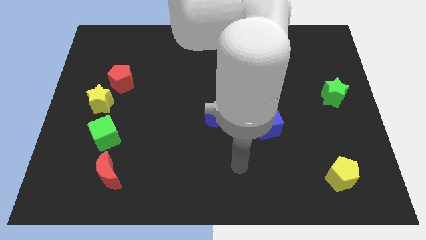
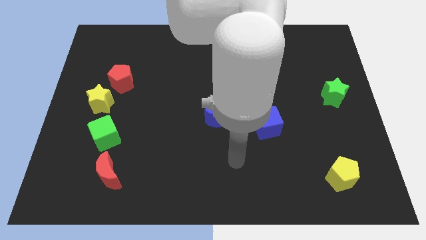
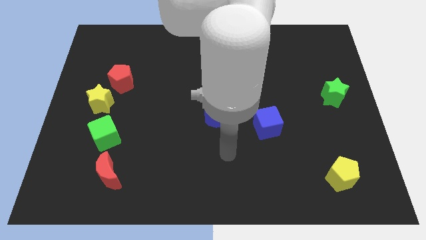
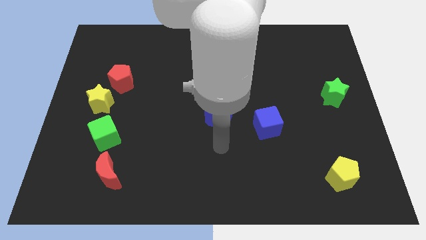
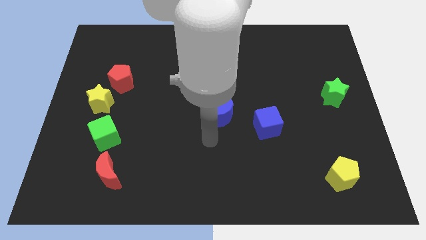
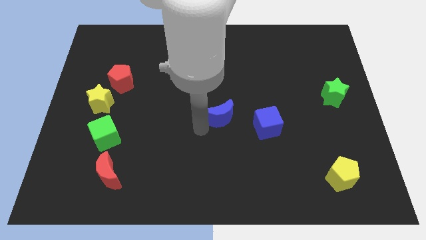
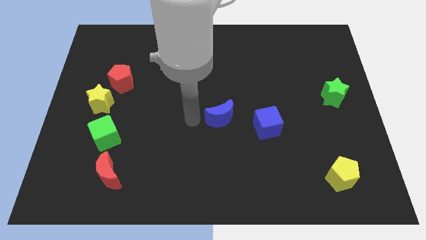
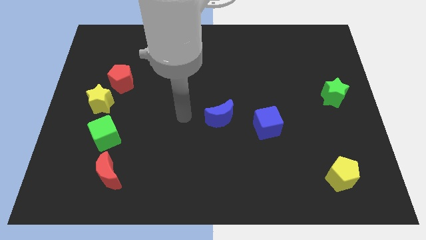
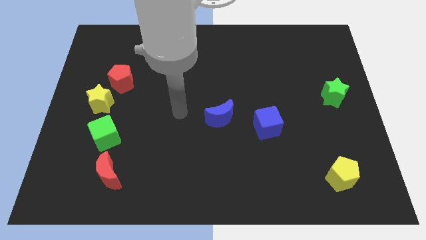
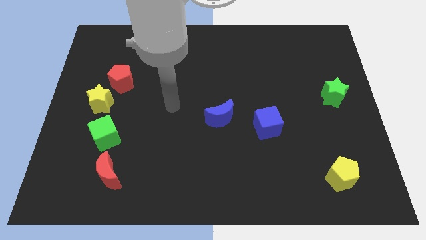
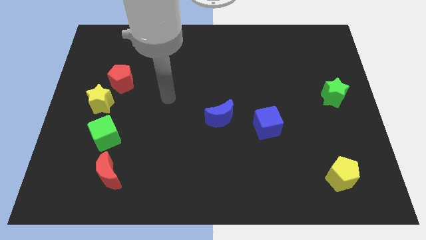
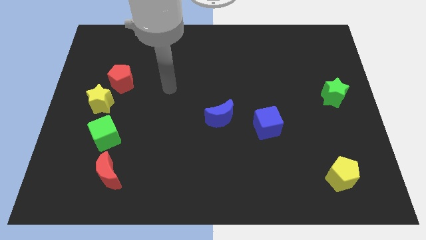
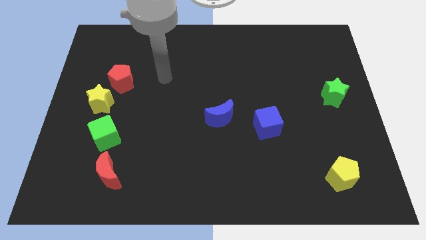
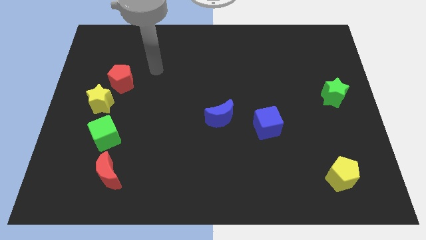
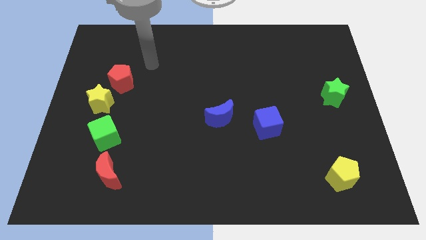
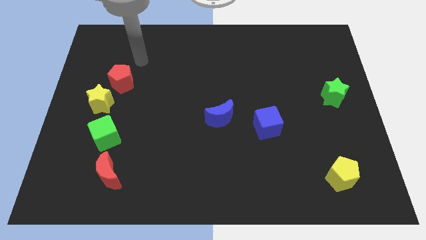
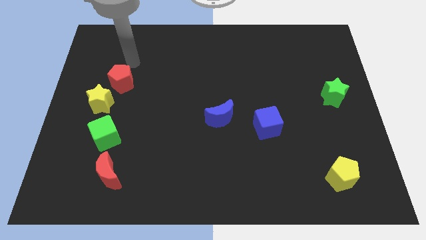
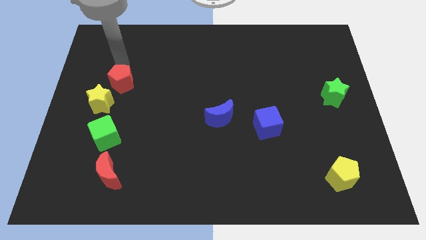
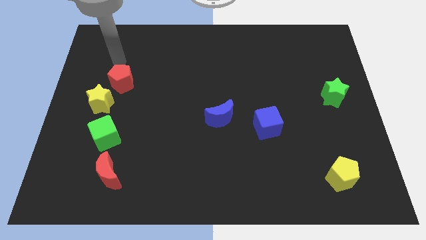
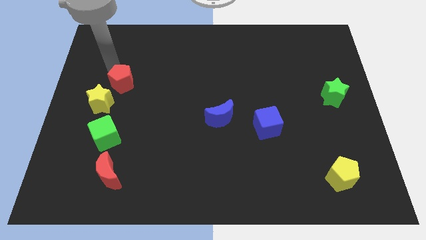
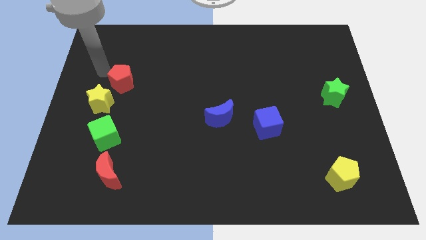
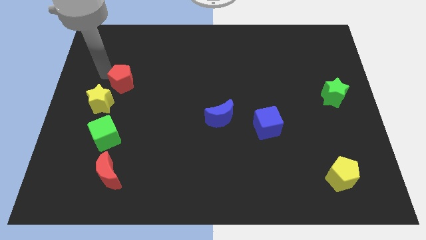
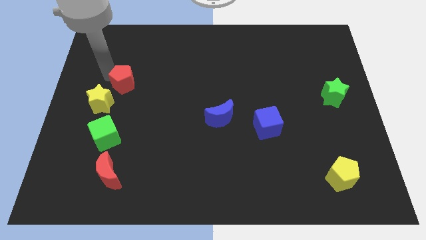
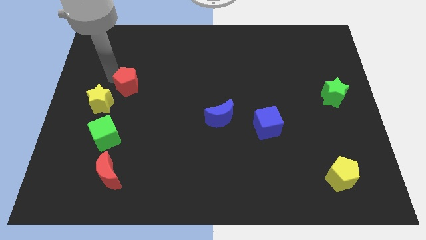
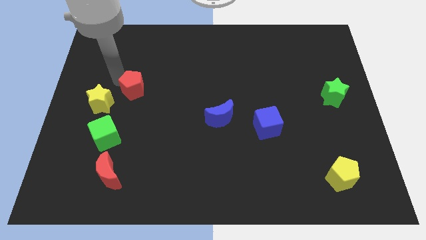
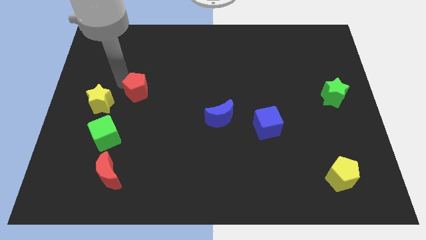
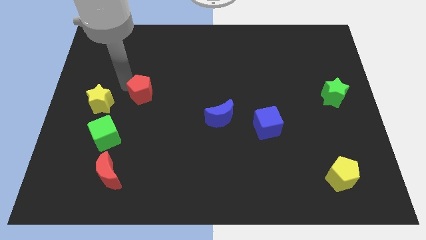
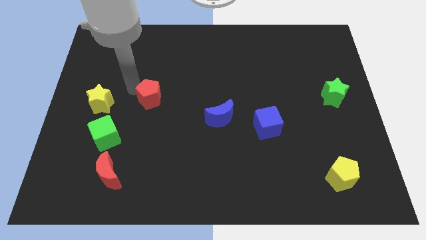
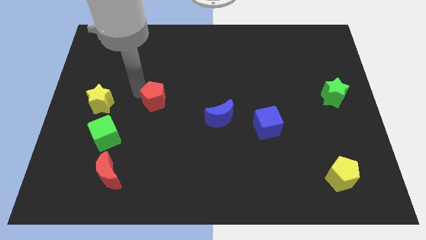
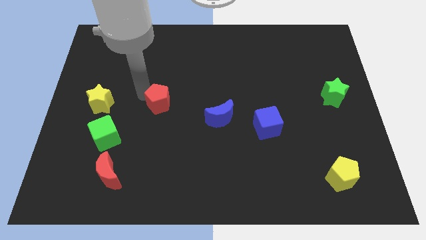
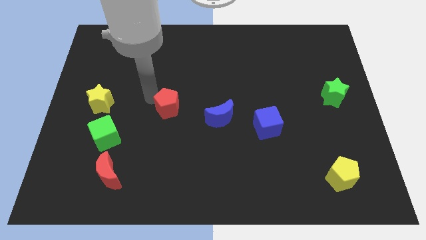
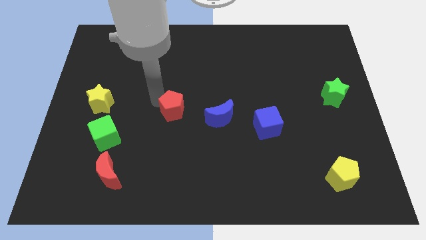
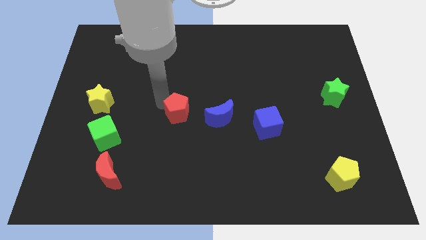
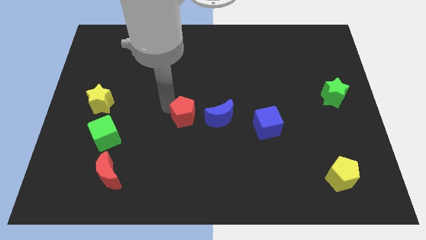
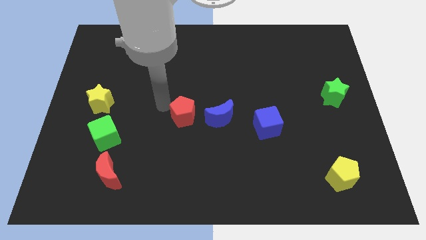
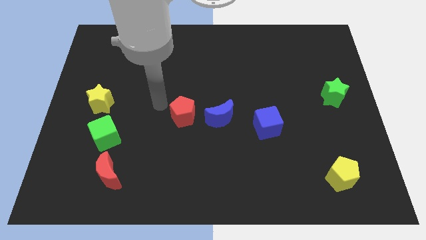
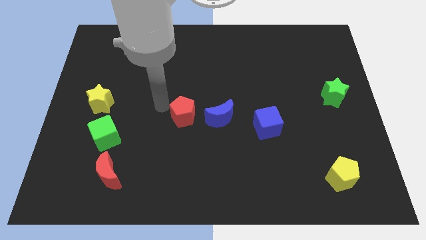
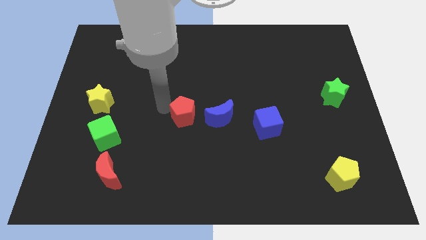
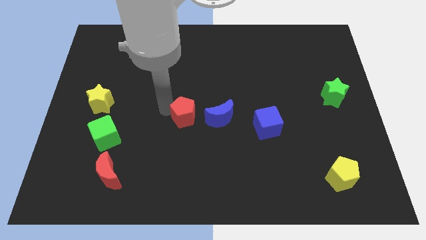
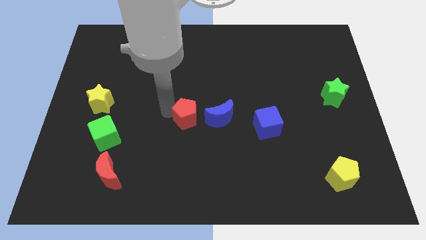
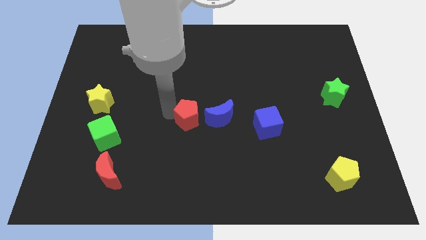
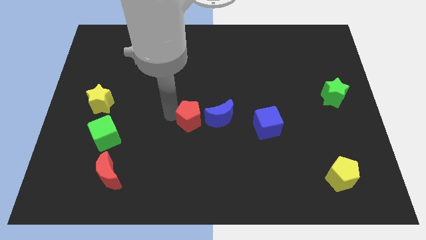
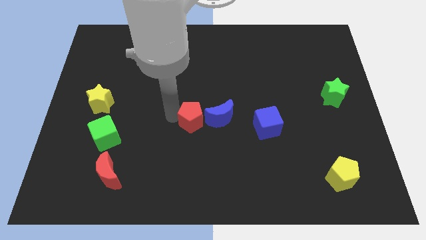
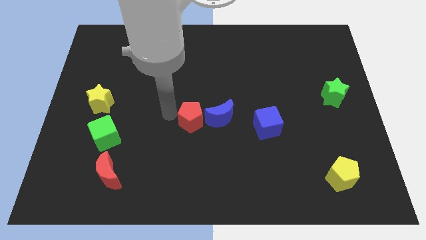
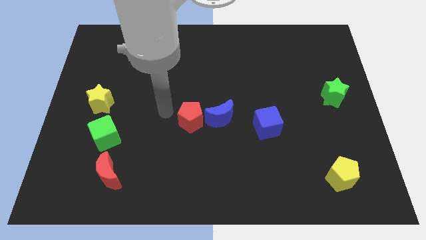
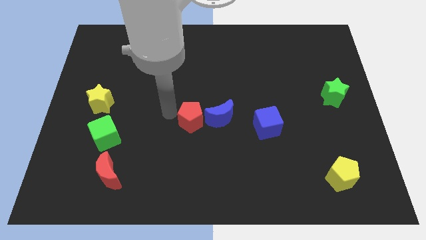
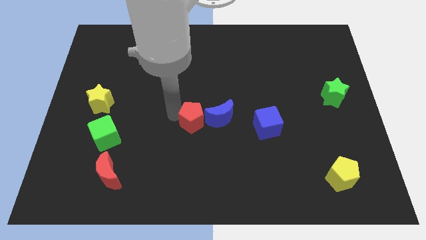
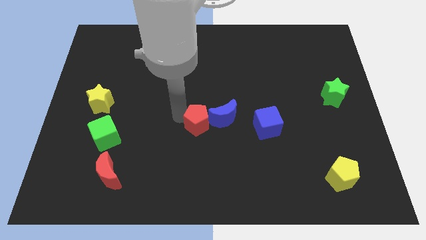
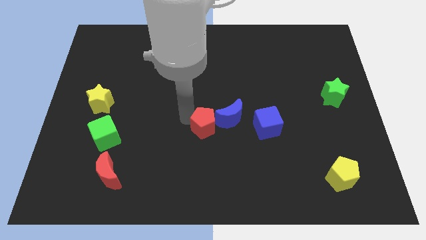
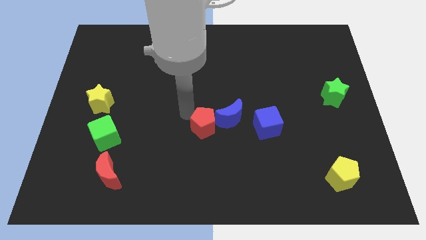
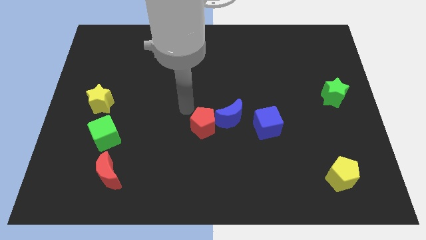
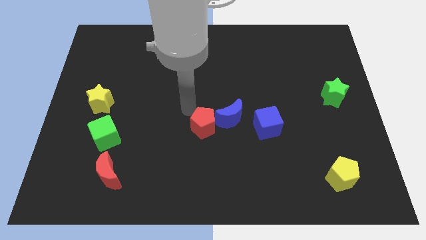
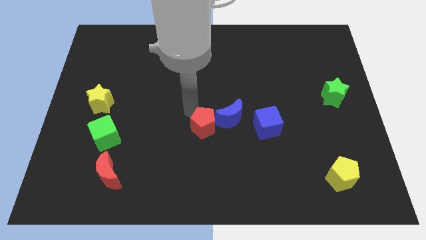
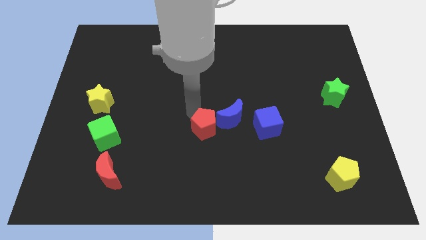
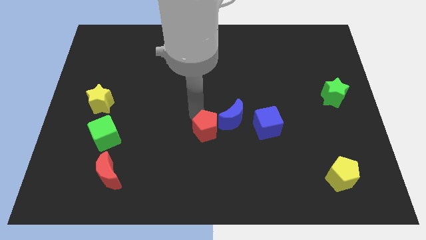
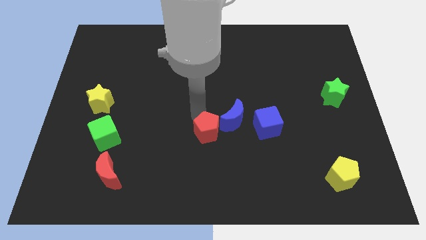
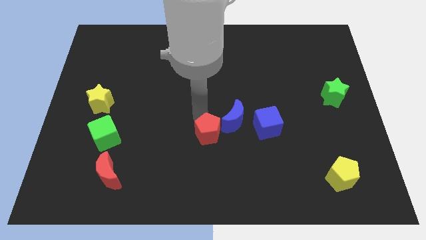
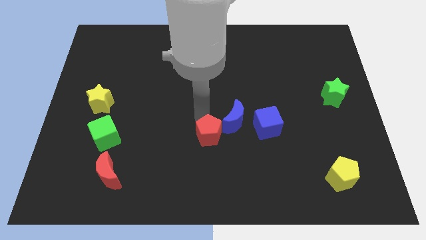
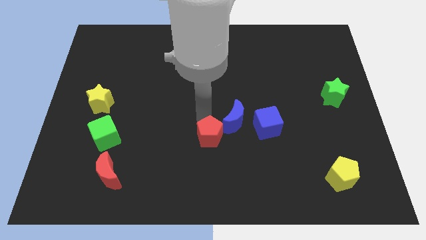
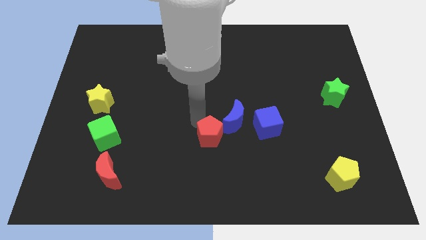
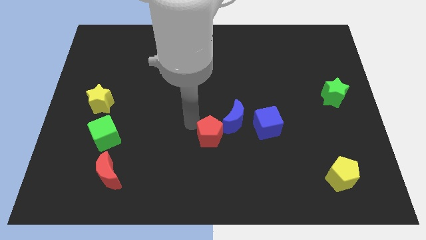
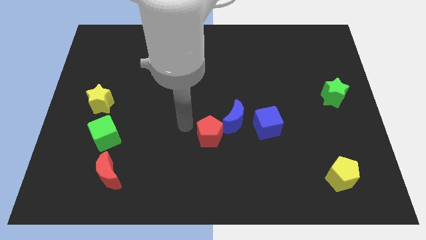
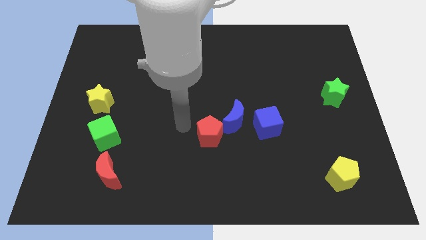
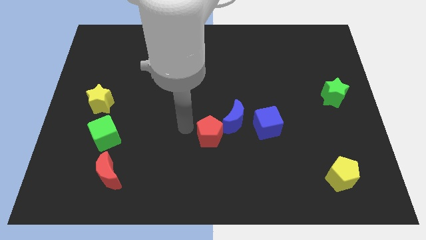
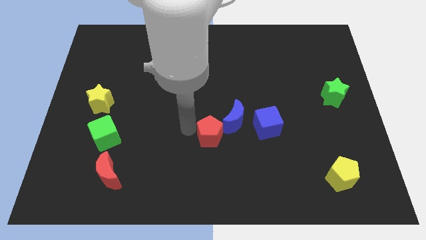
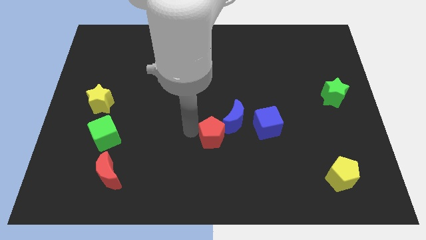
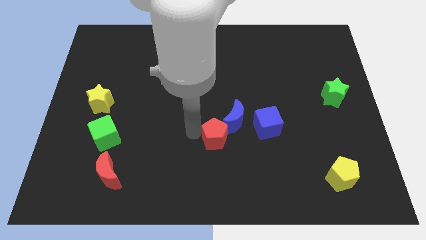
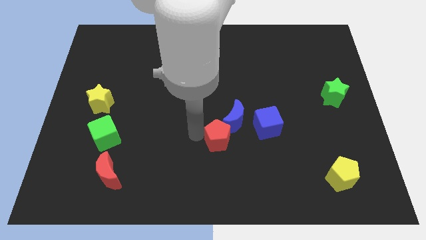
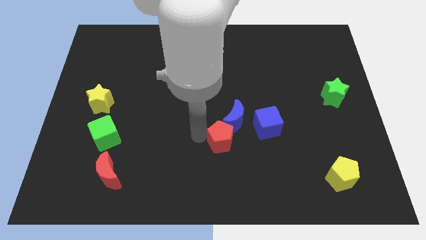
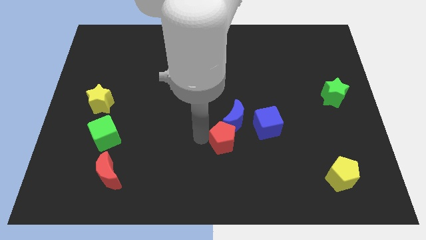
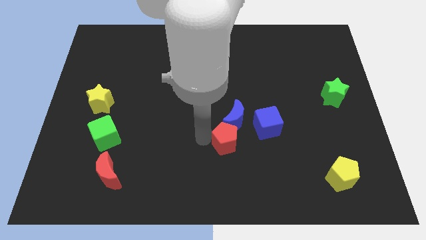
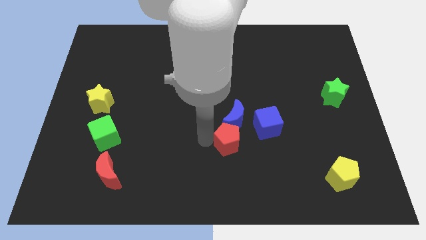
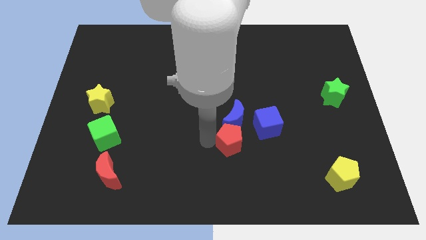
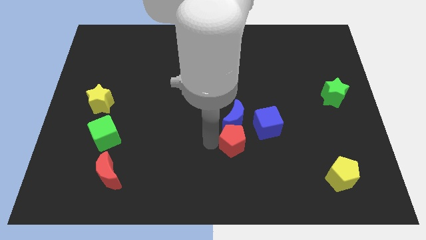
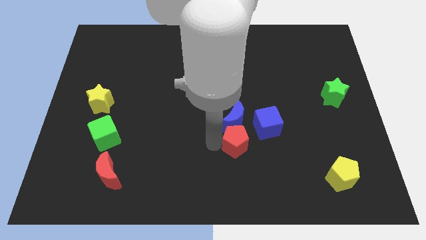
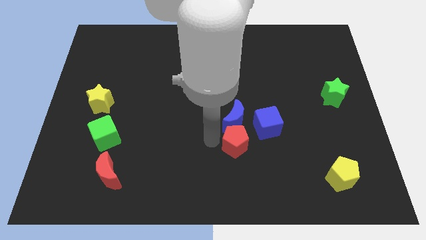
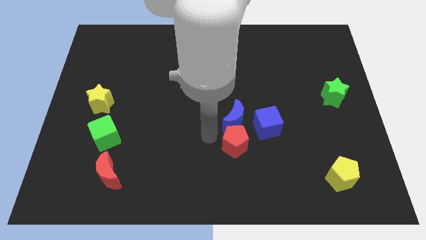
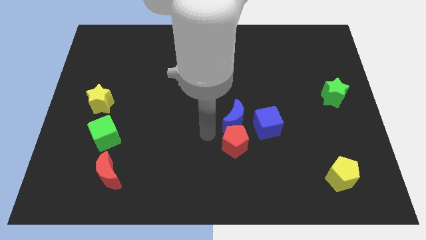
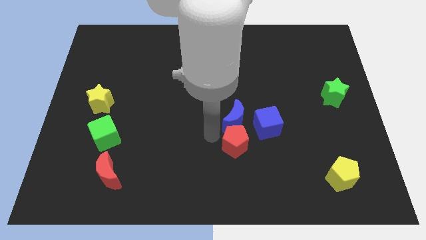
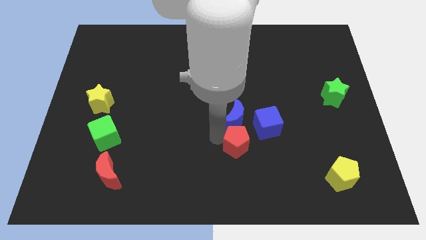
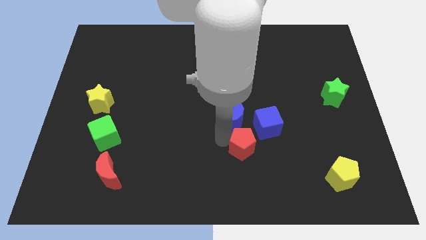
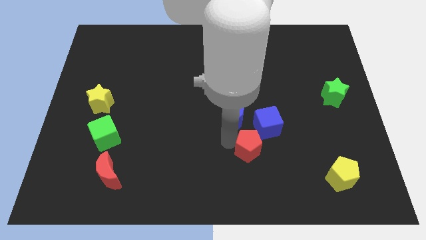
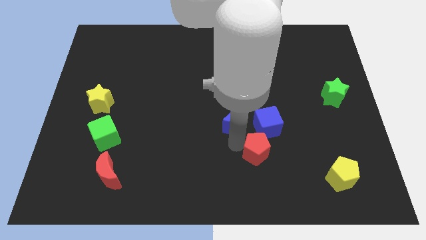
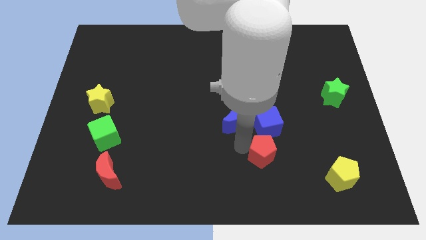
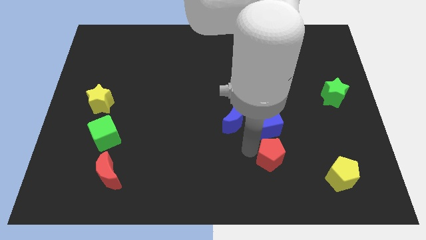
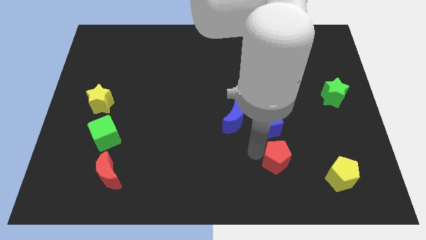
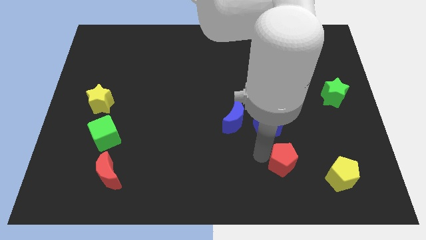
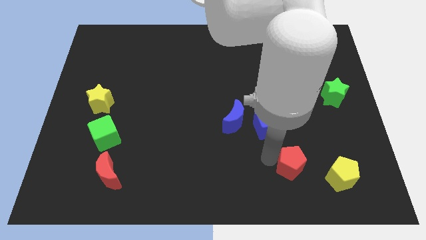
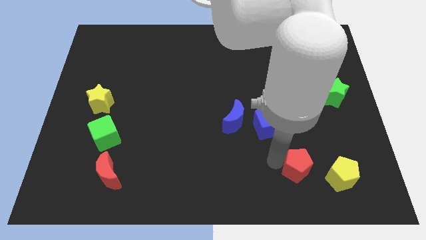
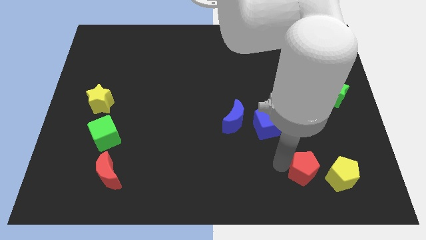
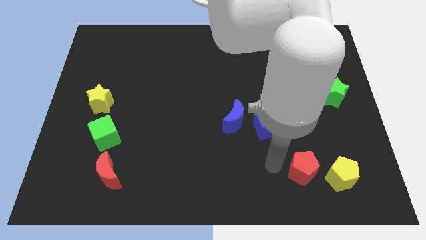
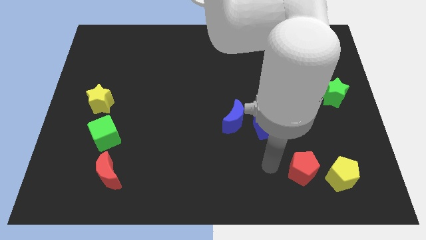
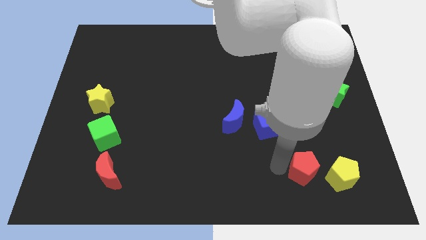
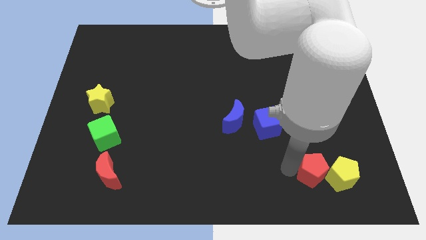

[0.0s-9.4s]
push the red pentagon next to the yellow pentagon
